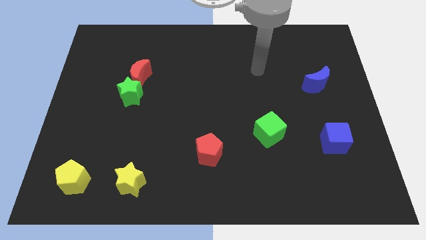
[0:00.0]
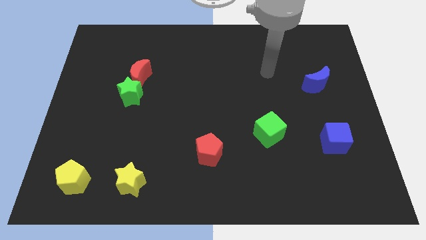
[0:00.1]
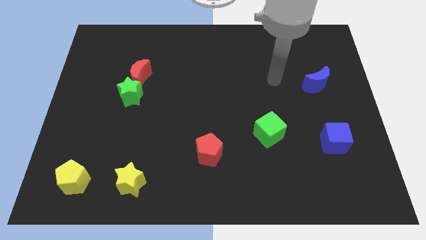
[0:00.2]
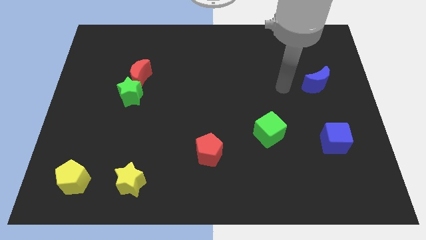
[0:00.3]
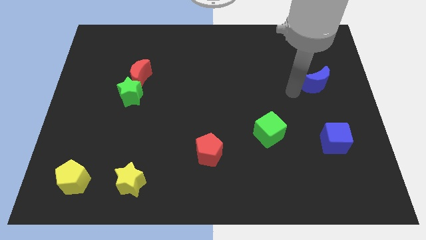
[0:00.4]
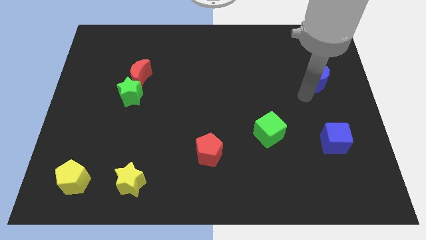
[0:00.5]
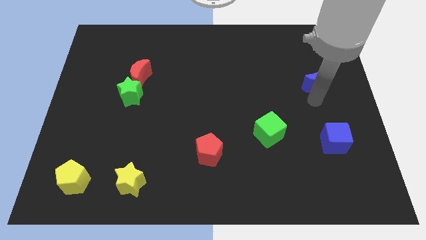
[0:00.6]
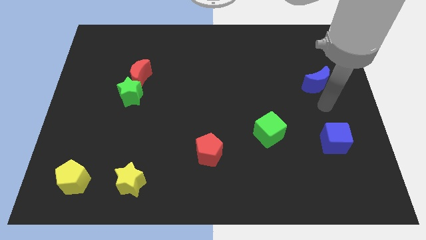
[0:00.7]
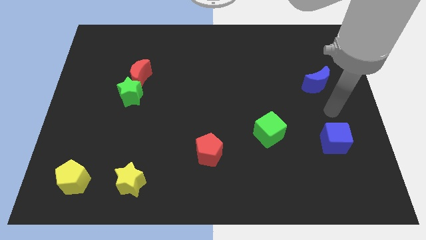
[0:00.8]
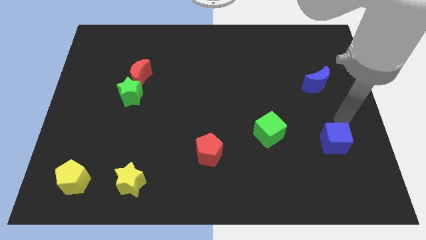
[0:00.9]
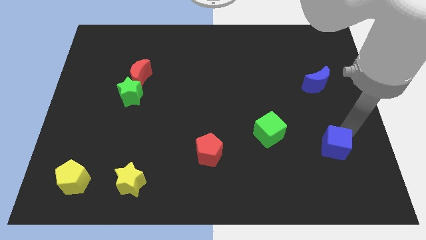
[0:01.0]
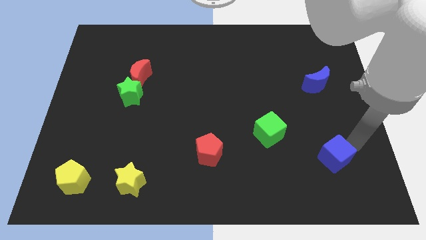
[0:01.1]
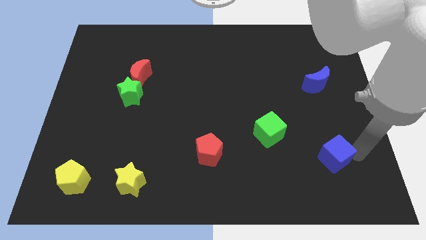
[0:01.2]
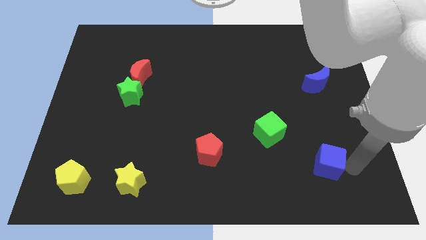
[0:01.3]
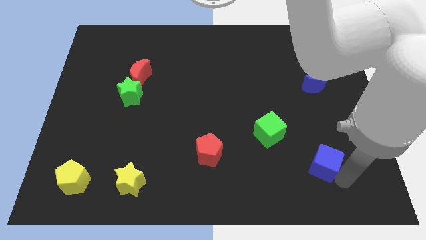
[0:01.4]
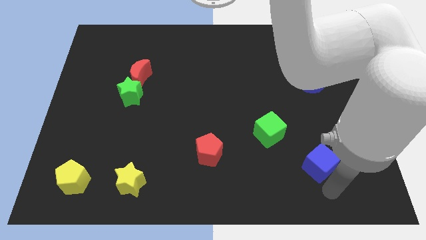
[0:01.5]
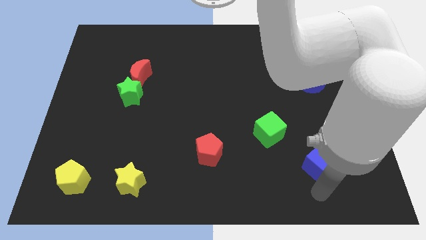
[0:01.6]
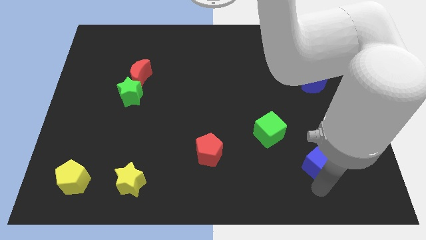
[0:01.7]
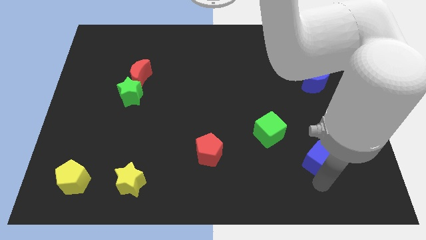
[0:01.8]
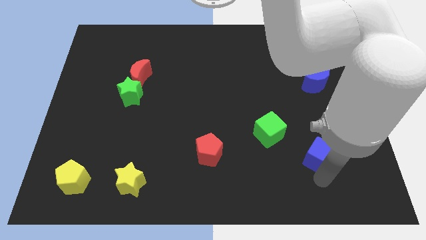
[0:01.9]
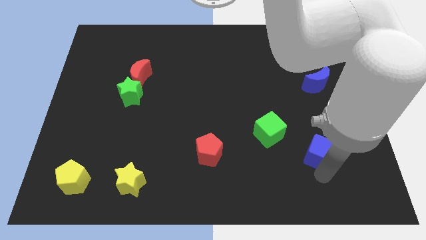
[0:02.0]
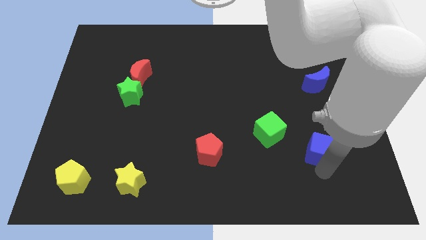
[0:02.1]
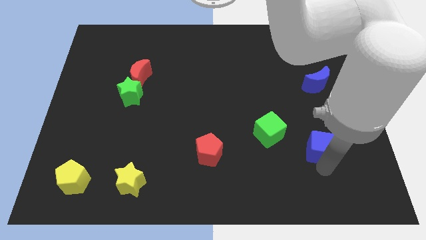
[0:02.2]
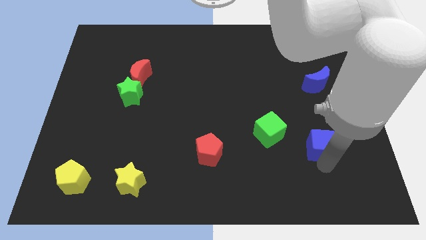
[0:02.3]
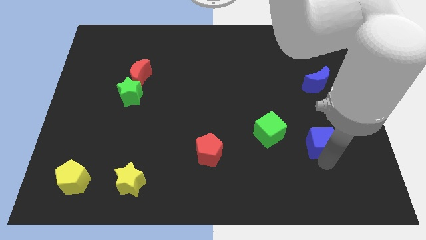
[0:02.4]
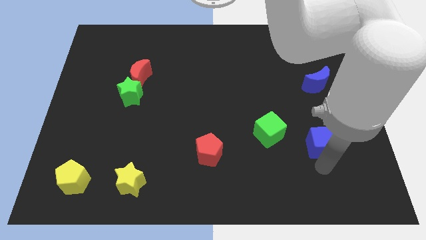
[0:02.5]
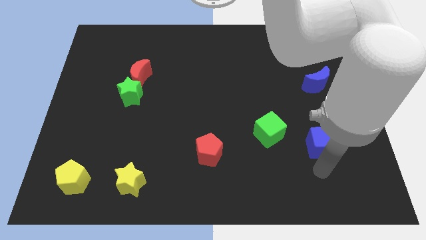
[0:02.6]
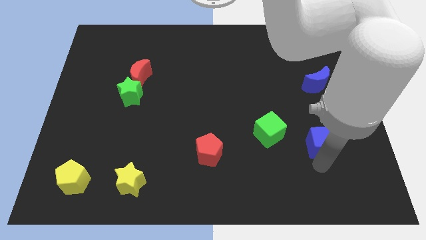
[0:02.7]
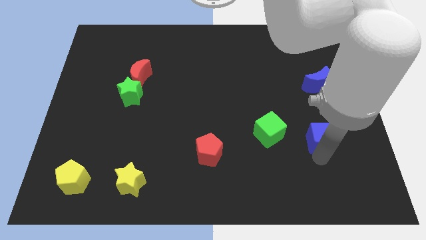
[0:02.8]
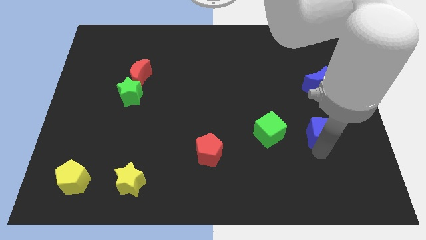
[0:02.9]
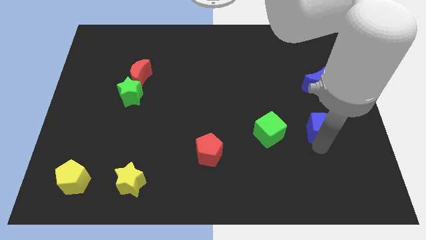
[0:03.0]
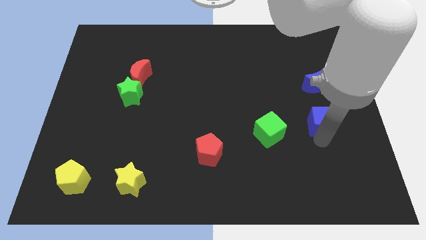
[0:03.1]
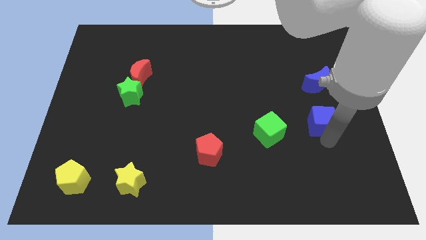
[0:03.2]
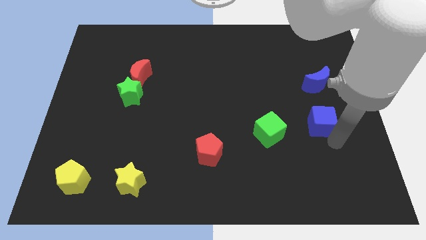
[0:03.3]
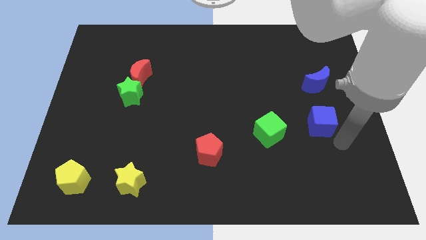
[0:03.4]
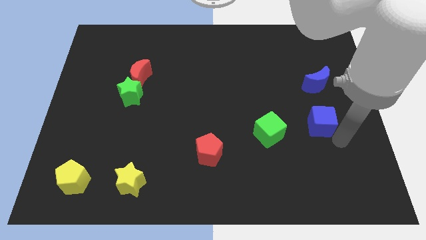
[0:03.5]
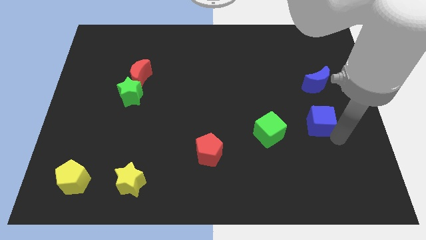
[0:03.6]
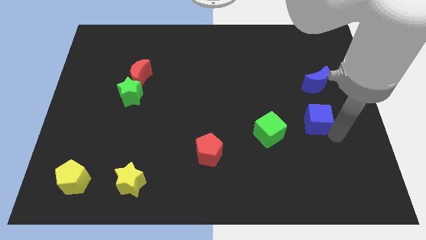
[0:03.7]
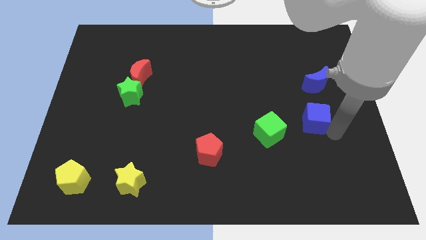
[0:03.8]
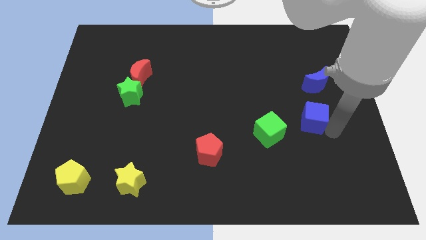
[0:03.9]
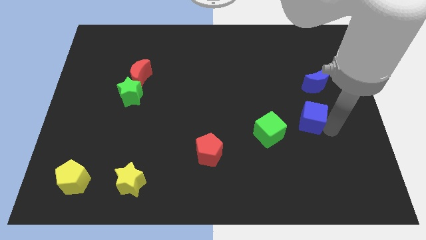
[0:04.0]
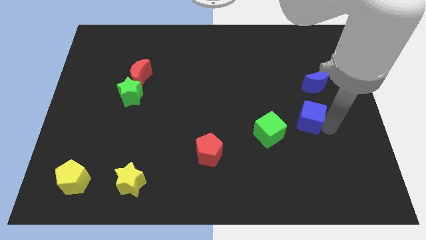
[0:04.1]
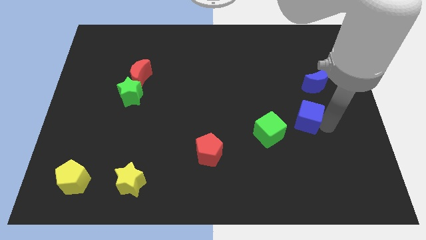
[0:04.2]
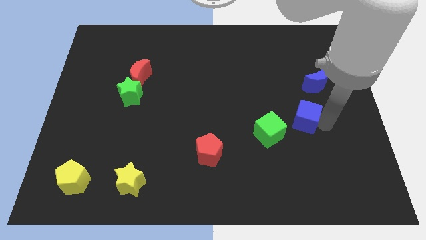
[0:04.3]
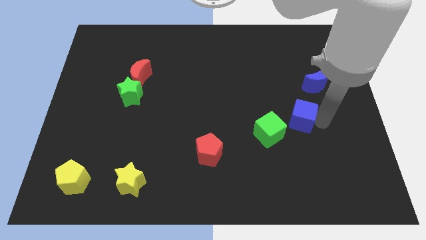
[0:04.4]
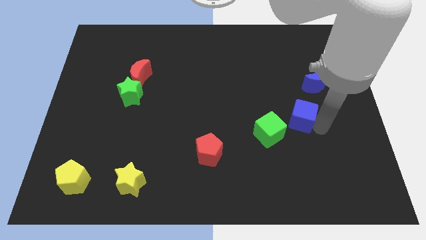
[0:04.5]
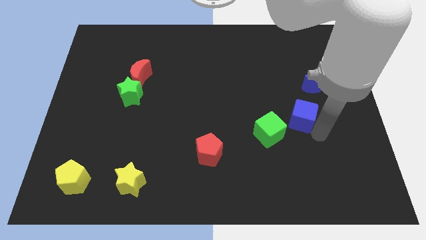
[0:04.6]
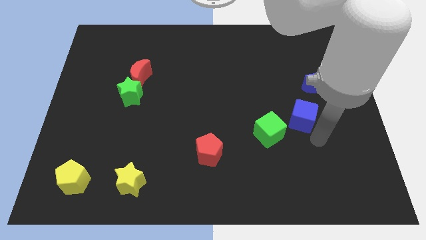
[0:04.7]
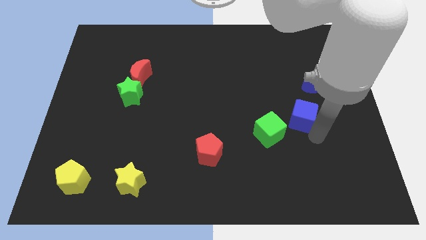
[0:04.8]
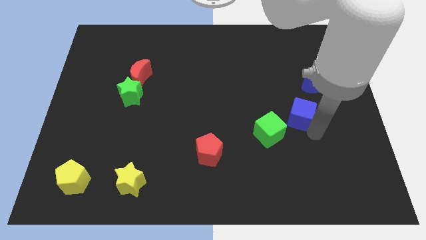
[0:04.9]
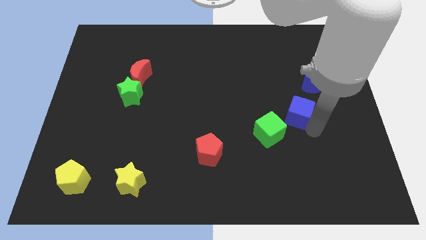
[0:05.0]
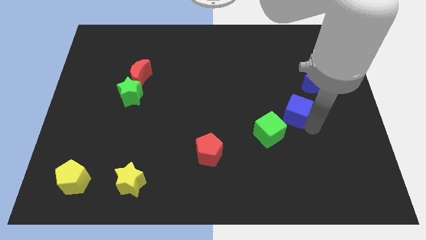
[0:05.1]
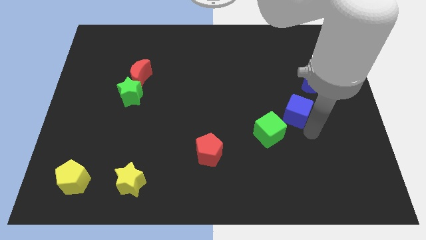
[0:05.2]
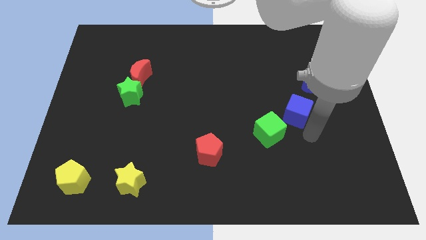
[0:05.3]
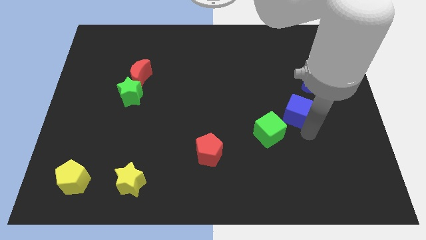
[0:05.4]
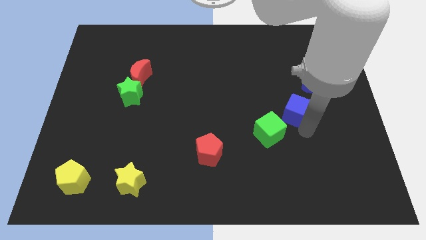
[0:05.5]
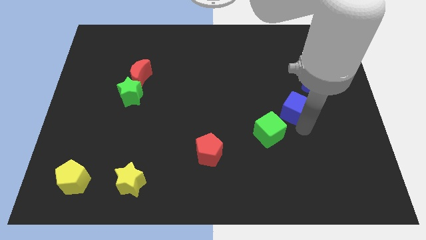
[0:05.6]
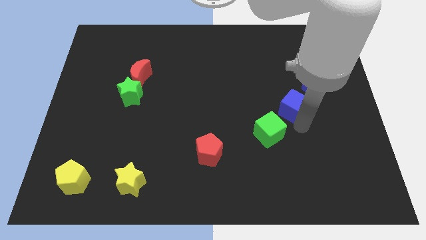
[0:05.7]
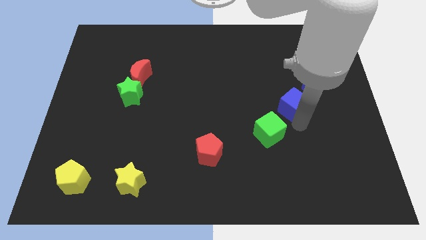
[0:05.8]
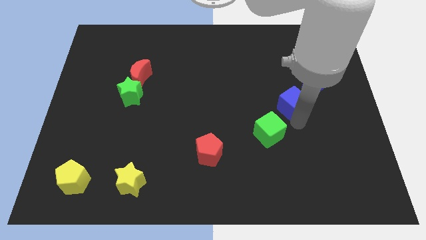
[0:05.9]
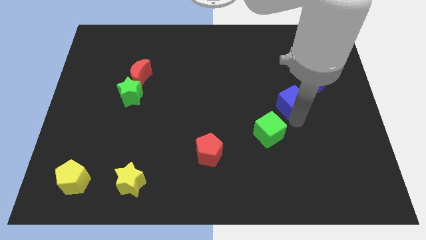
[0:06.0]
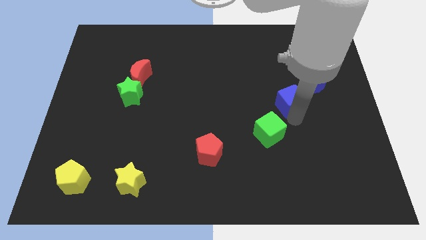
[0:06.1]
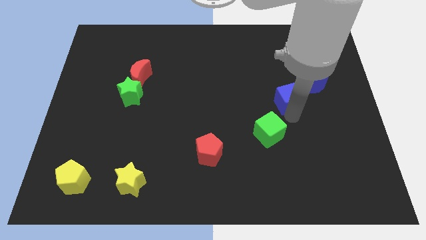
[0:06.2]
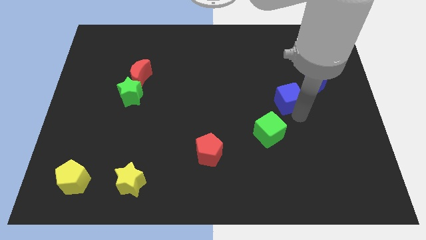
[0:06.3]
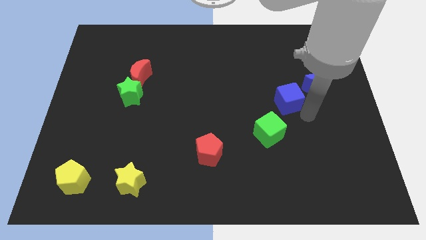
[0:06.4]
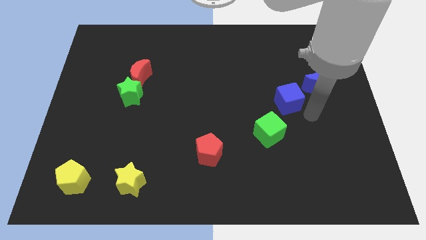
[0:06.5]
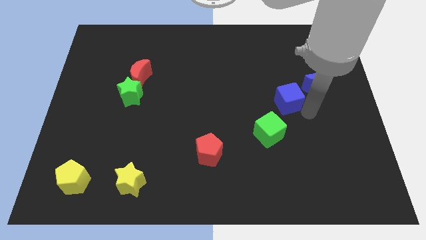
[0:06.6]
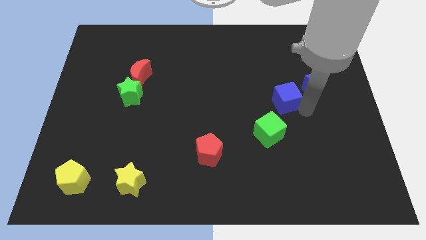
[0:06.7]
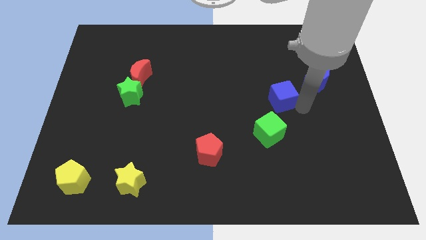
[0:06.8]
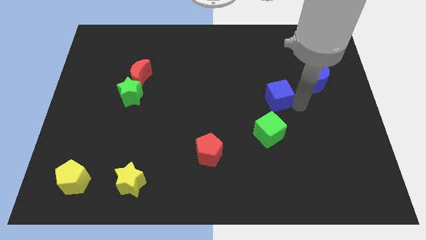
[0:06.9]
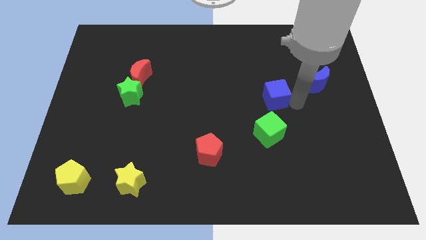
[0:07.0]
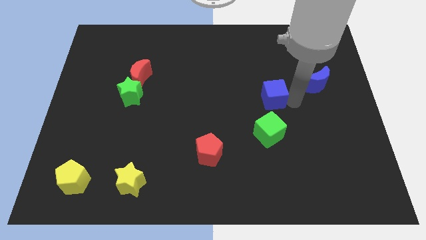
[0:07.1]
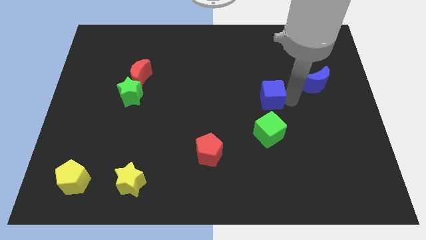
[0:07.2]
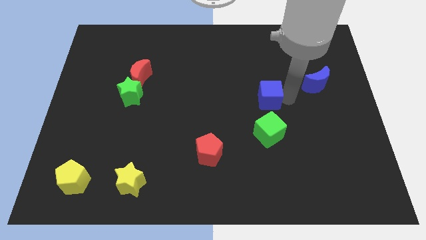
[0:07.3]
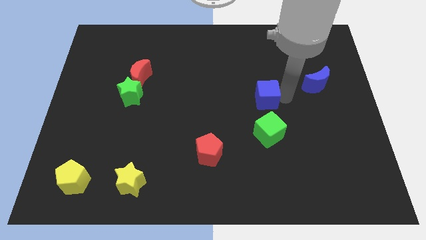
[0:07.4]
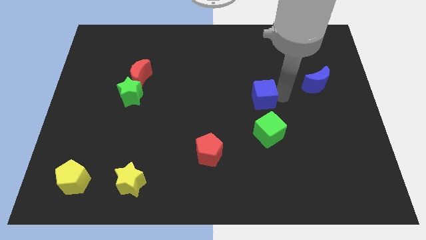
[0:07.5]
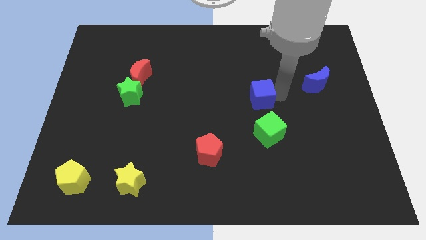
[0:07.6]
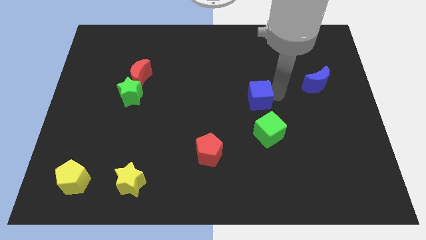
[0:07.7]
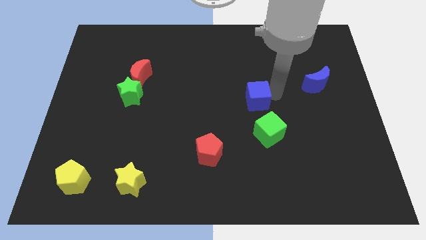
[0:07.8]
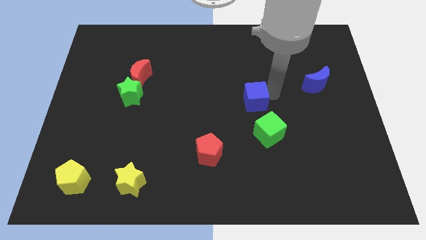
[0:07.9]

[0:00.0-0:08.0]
push the blue cube upwards and left
